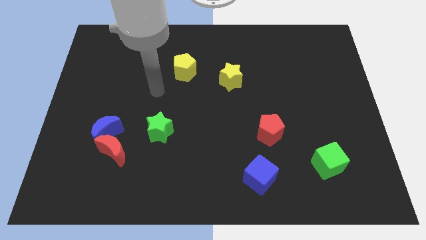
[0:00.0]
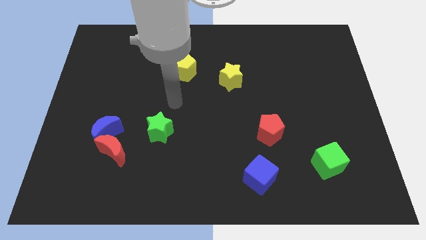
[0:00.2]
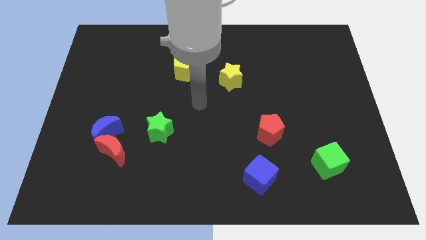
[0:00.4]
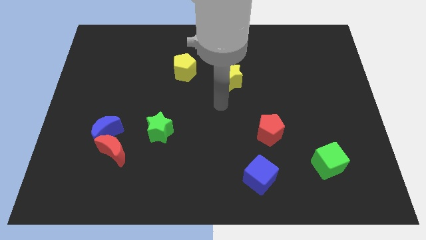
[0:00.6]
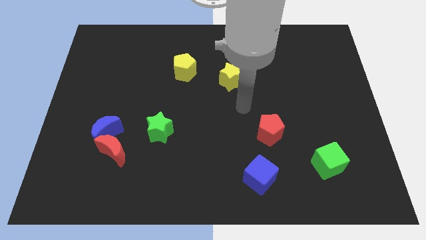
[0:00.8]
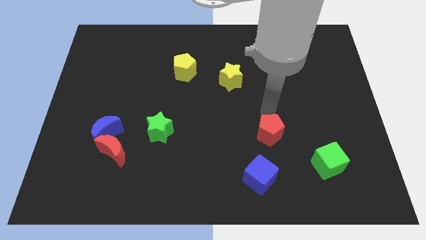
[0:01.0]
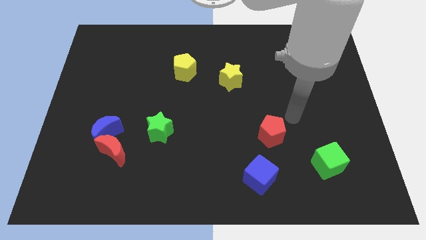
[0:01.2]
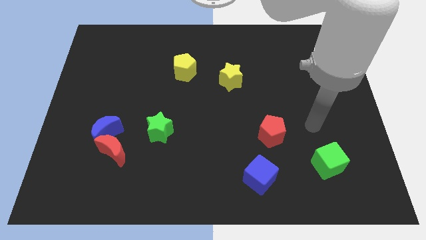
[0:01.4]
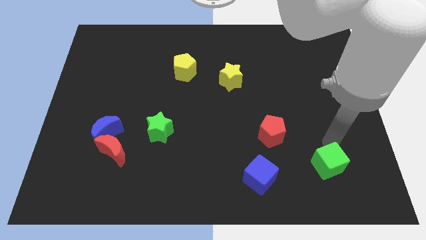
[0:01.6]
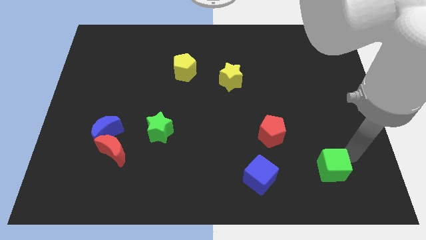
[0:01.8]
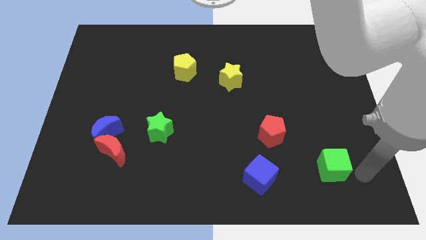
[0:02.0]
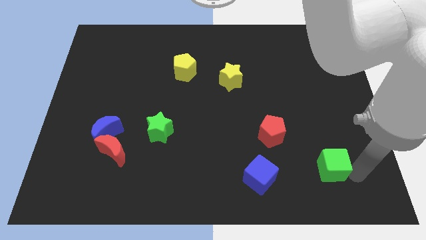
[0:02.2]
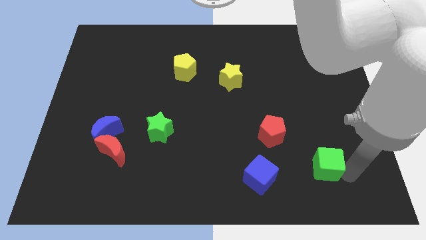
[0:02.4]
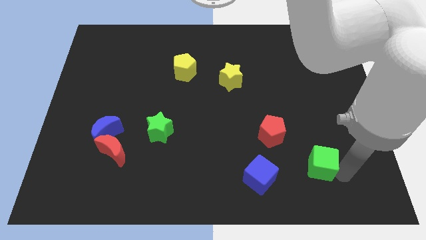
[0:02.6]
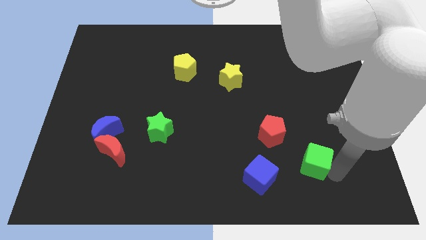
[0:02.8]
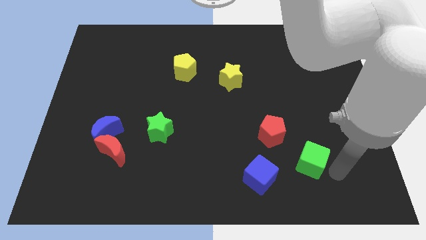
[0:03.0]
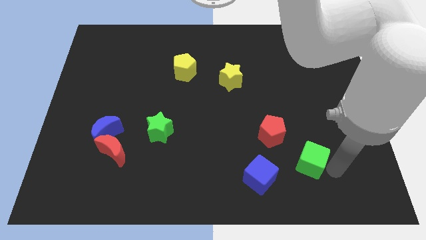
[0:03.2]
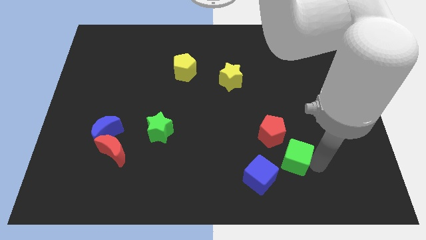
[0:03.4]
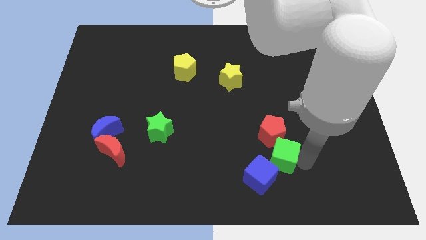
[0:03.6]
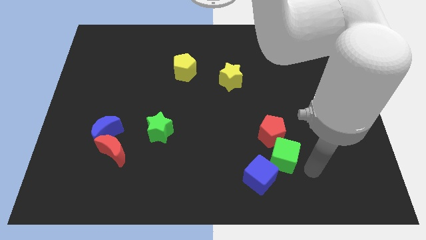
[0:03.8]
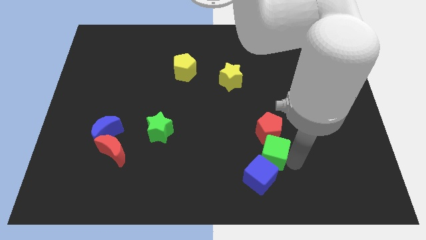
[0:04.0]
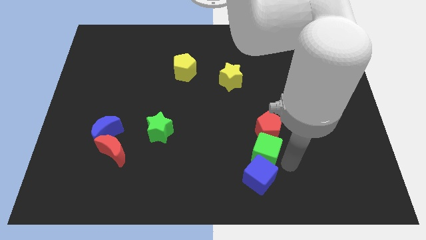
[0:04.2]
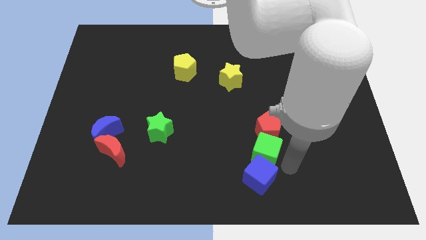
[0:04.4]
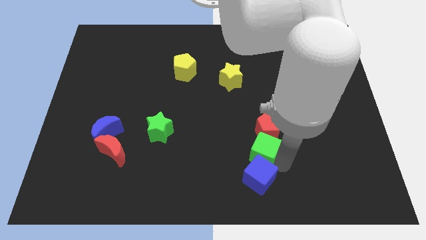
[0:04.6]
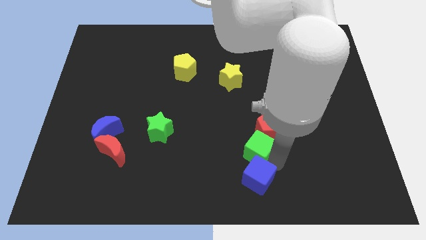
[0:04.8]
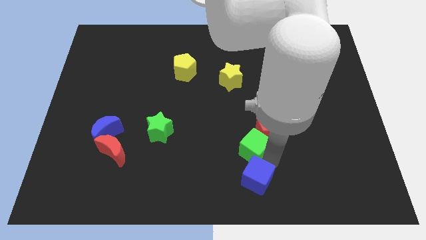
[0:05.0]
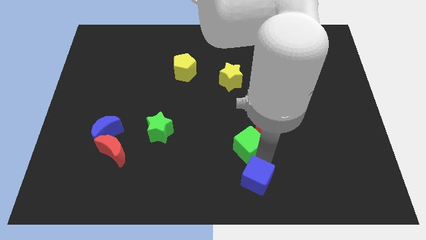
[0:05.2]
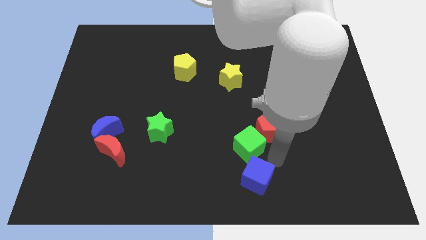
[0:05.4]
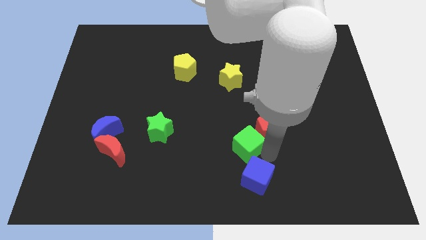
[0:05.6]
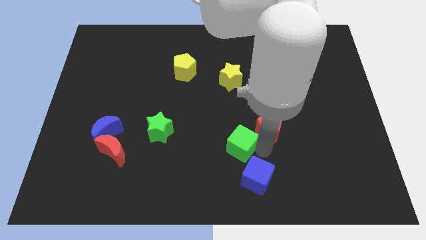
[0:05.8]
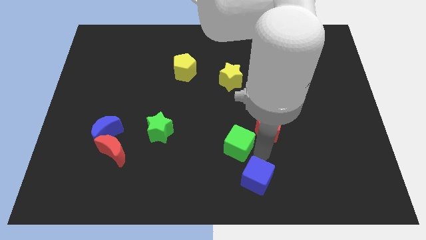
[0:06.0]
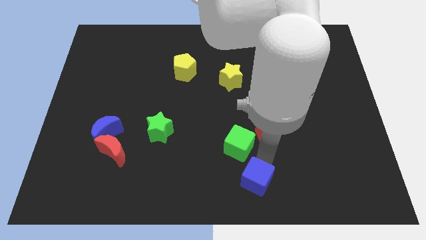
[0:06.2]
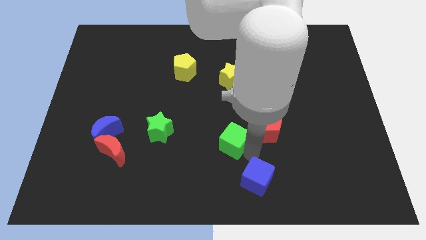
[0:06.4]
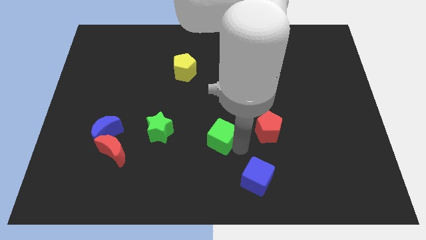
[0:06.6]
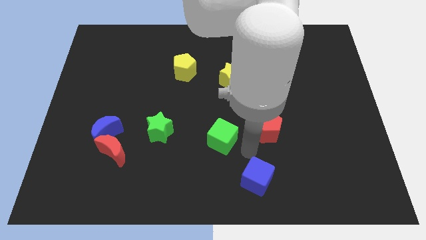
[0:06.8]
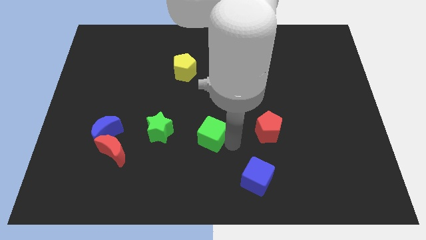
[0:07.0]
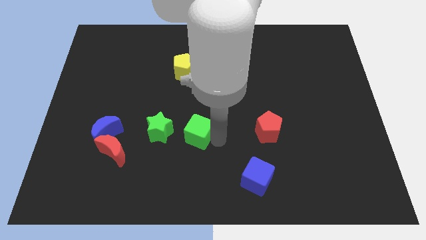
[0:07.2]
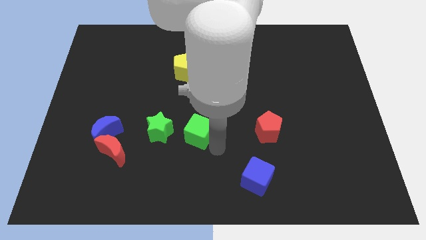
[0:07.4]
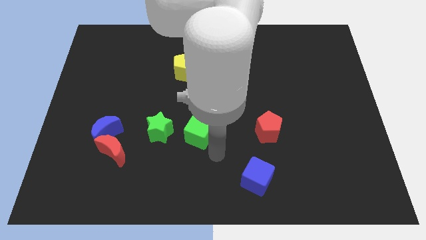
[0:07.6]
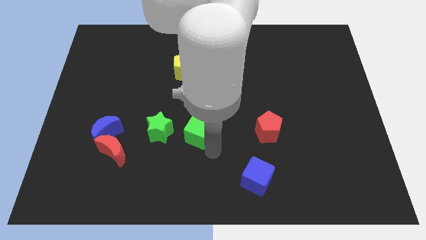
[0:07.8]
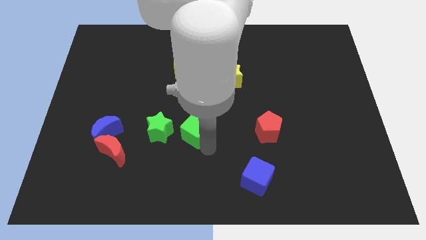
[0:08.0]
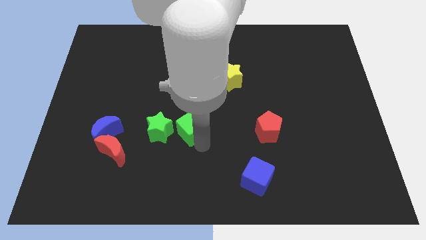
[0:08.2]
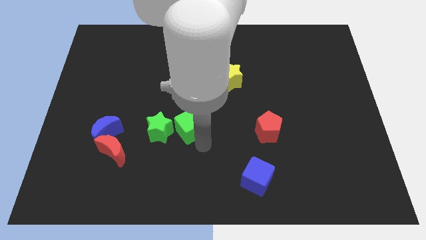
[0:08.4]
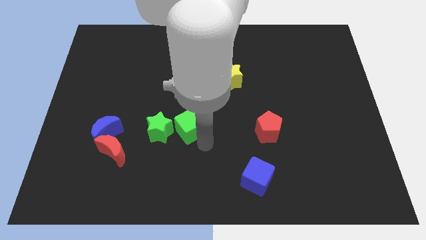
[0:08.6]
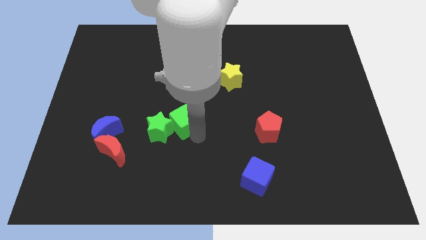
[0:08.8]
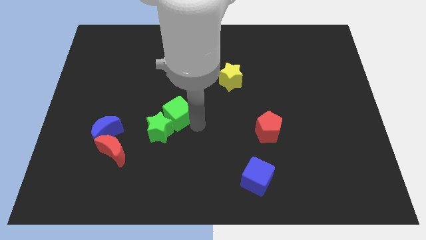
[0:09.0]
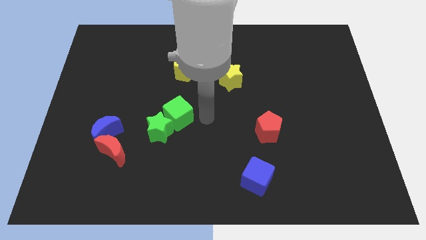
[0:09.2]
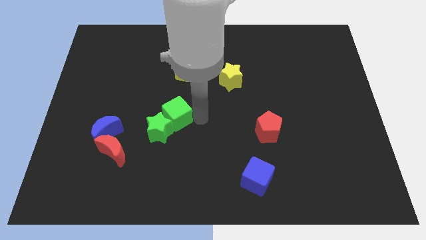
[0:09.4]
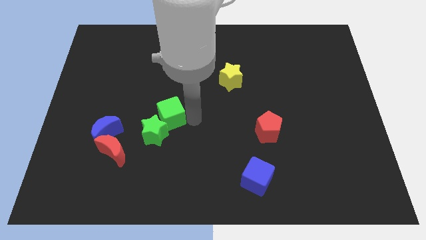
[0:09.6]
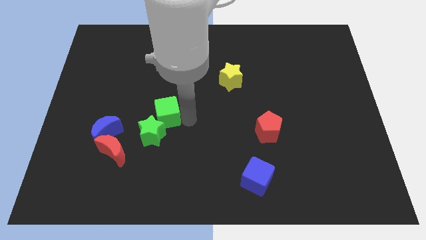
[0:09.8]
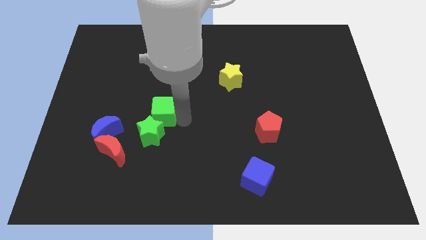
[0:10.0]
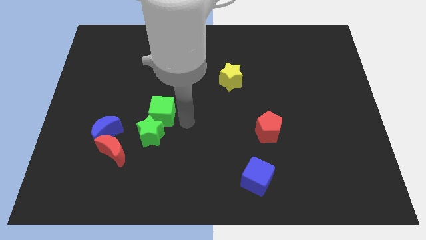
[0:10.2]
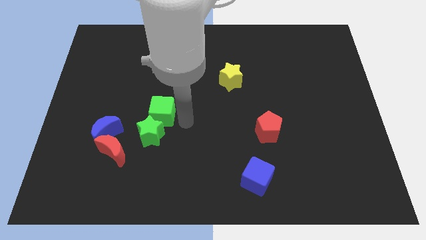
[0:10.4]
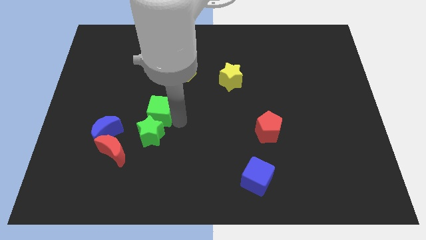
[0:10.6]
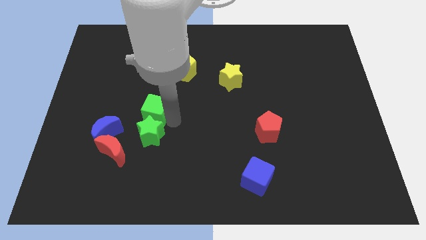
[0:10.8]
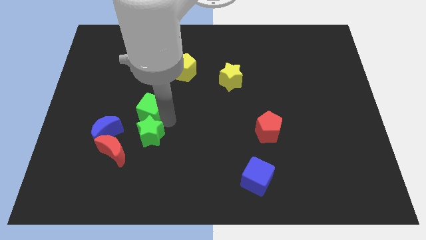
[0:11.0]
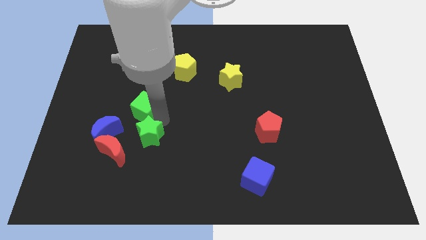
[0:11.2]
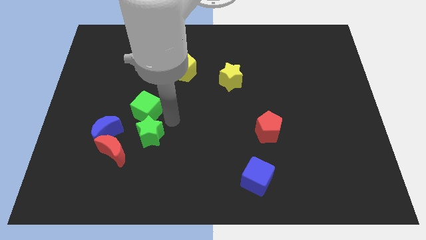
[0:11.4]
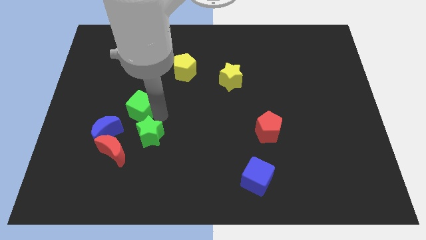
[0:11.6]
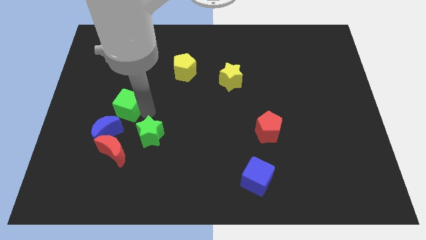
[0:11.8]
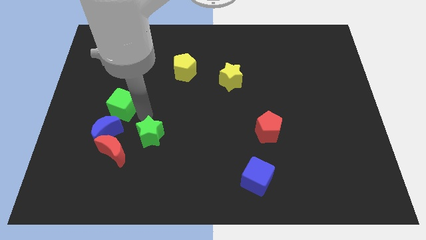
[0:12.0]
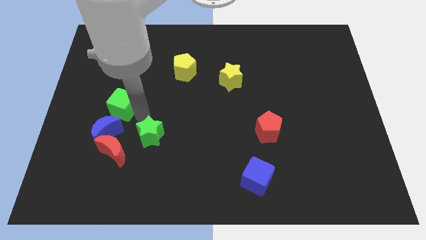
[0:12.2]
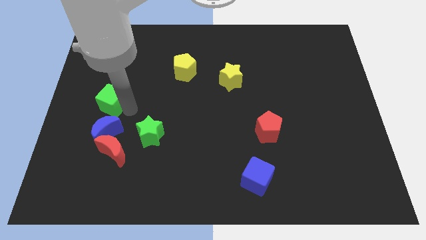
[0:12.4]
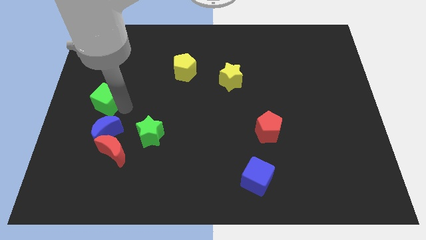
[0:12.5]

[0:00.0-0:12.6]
move the green cube to the left side of the board

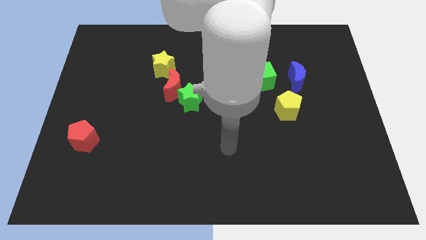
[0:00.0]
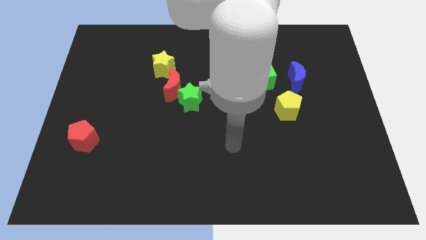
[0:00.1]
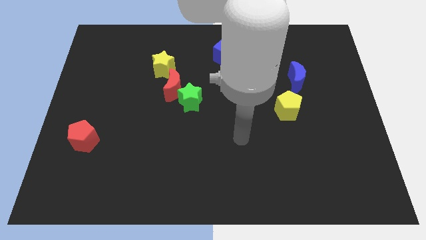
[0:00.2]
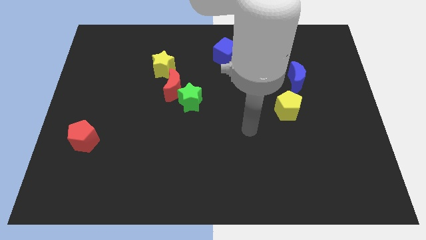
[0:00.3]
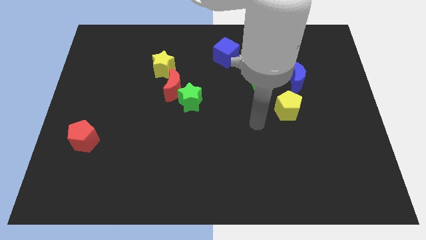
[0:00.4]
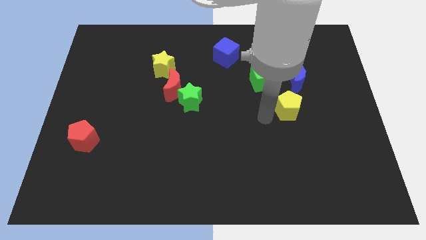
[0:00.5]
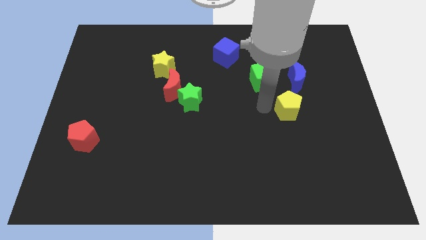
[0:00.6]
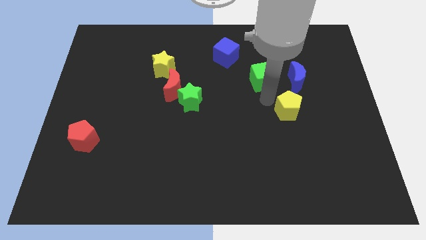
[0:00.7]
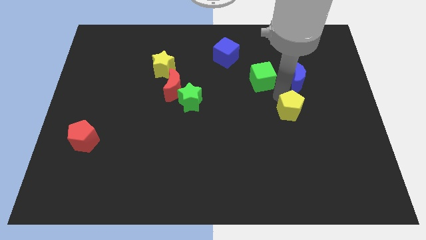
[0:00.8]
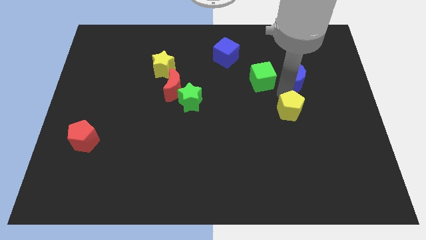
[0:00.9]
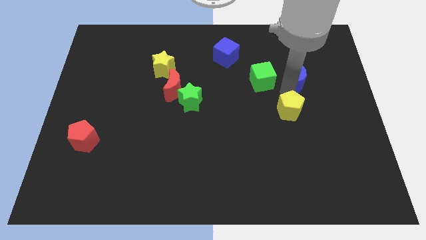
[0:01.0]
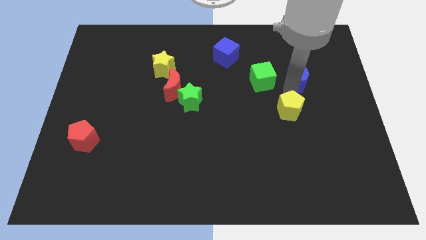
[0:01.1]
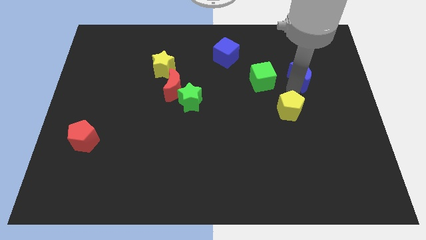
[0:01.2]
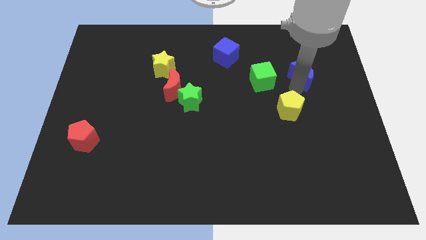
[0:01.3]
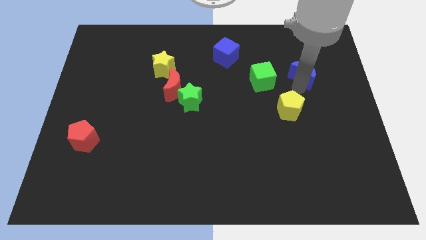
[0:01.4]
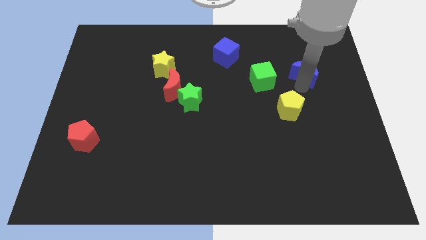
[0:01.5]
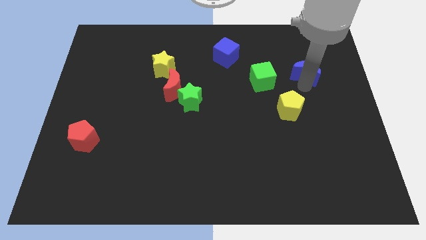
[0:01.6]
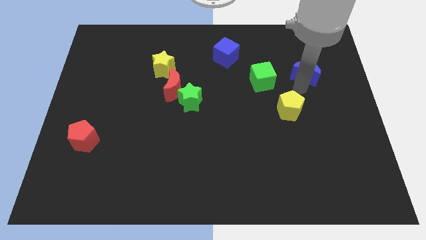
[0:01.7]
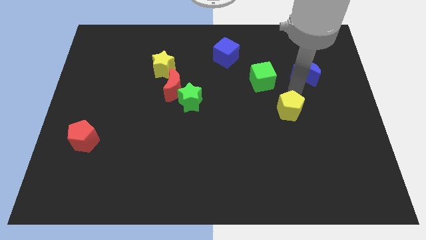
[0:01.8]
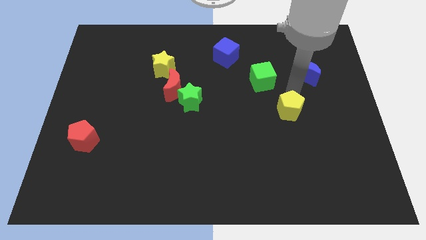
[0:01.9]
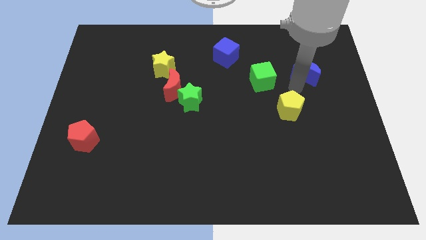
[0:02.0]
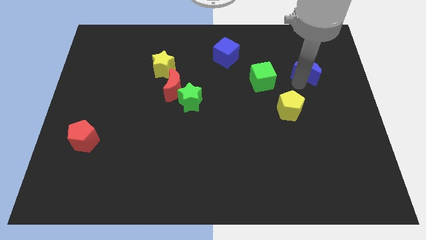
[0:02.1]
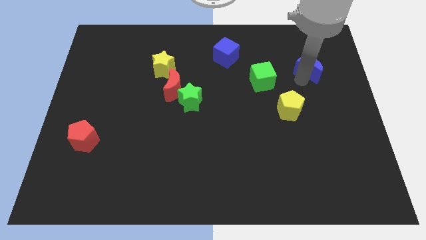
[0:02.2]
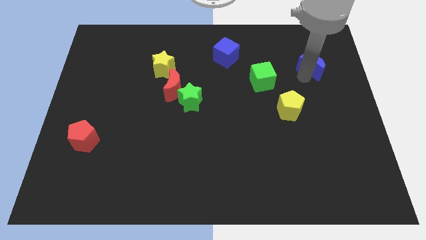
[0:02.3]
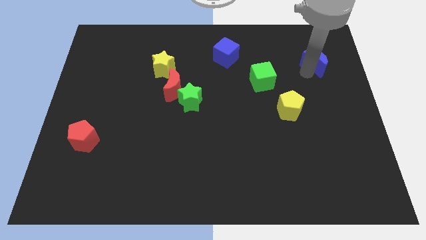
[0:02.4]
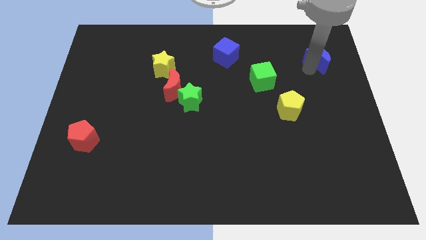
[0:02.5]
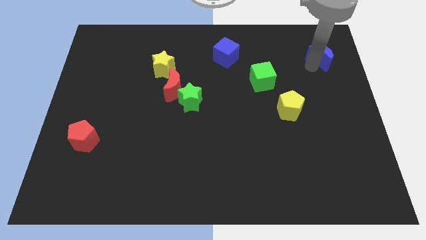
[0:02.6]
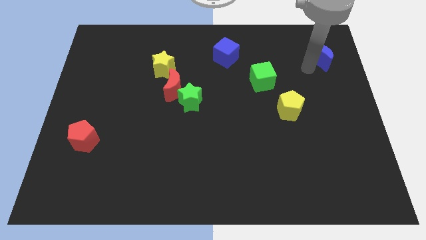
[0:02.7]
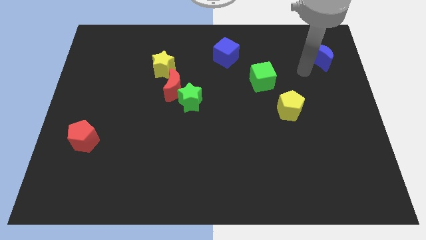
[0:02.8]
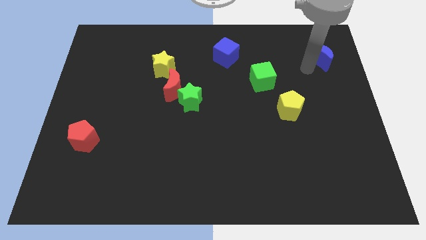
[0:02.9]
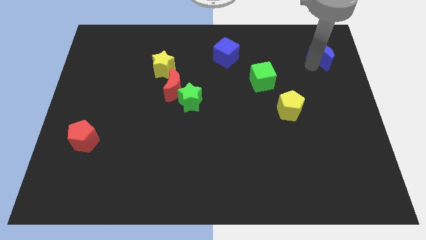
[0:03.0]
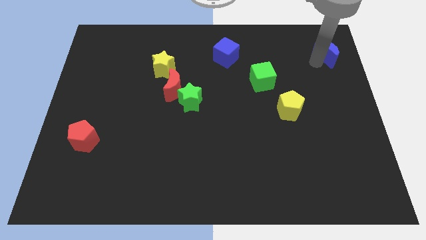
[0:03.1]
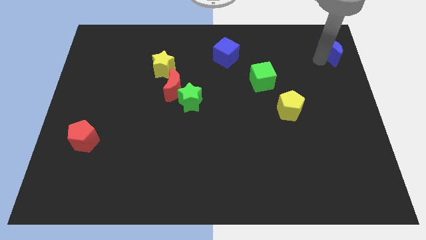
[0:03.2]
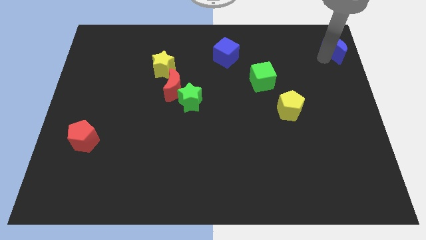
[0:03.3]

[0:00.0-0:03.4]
slide the blue moon to the top right corner
